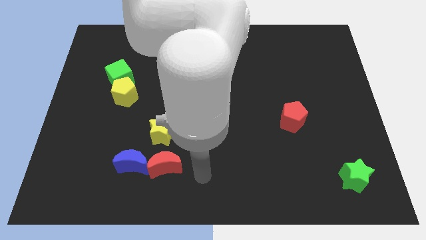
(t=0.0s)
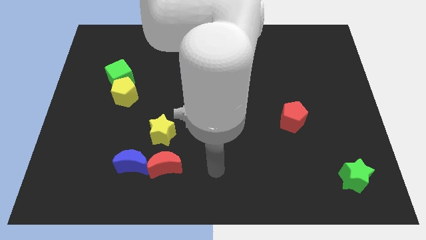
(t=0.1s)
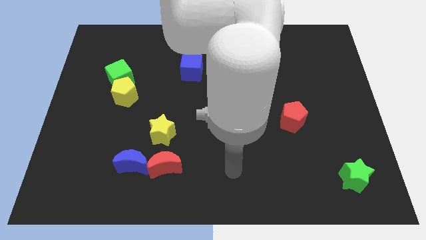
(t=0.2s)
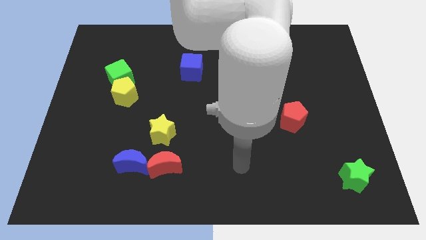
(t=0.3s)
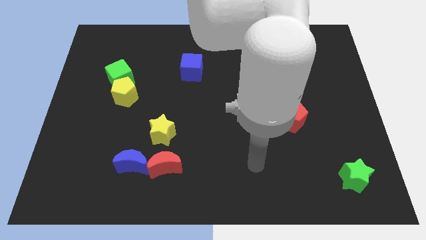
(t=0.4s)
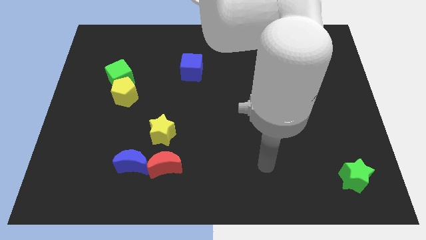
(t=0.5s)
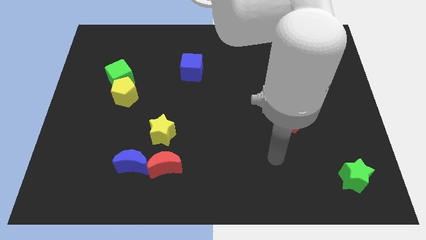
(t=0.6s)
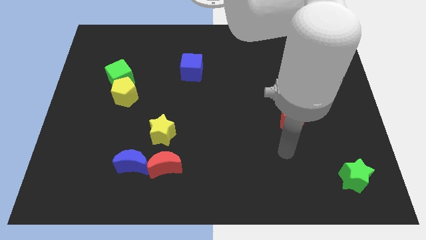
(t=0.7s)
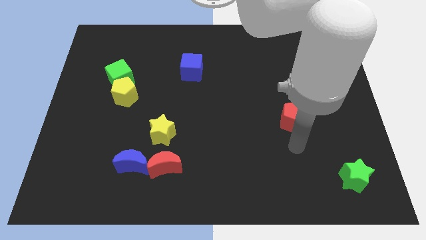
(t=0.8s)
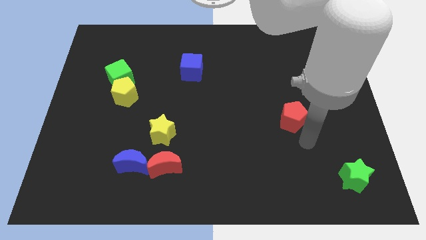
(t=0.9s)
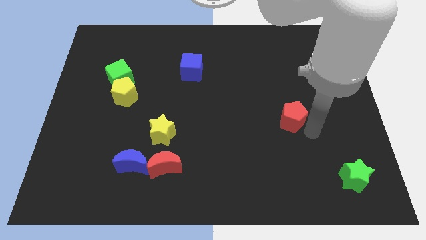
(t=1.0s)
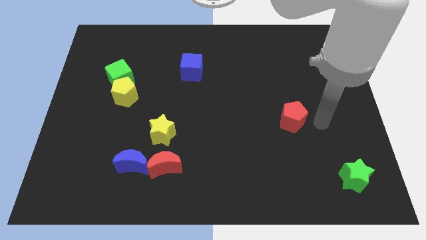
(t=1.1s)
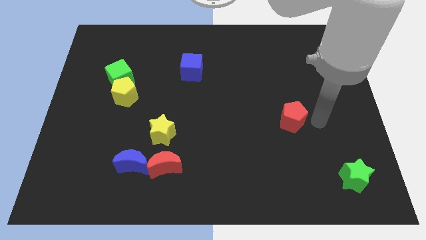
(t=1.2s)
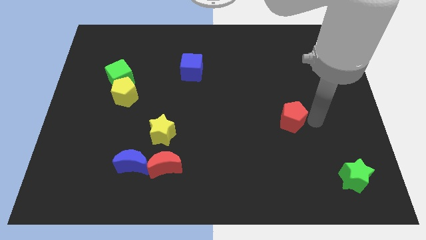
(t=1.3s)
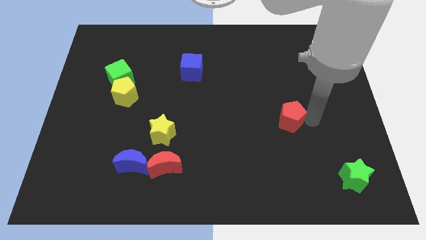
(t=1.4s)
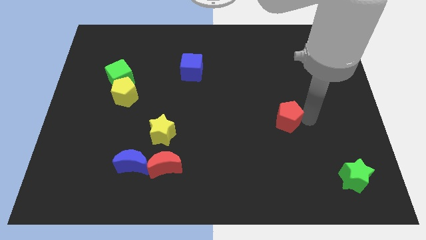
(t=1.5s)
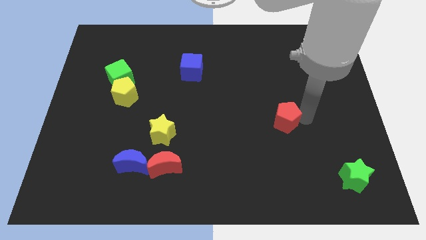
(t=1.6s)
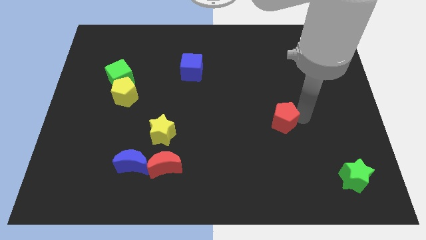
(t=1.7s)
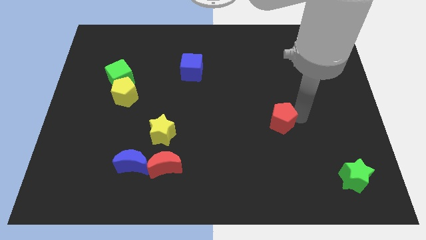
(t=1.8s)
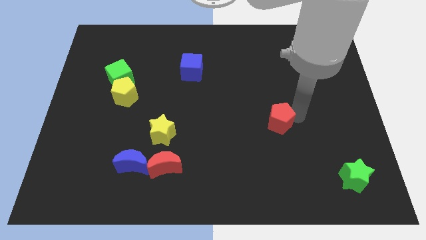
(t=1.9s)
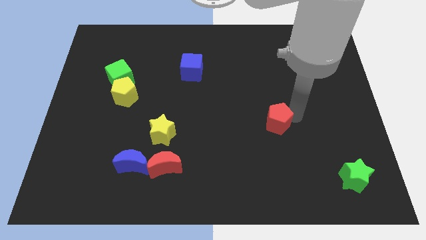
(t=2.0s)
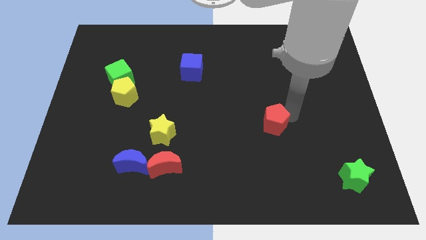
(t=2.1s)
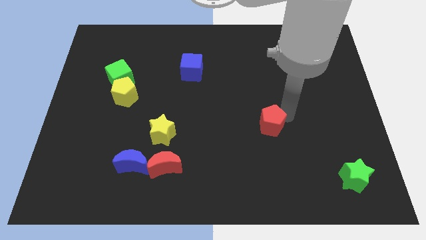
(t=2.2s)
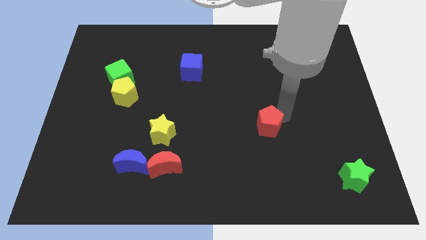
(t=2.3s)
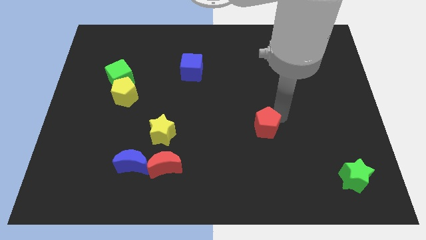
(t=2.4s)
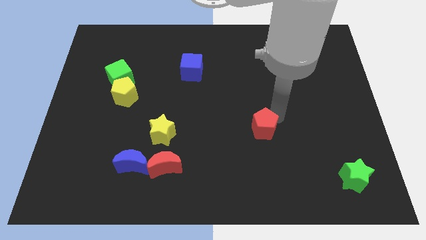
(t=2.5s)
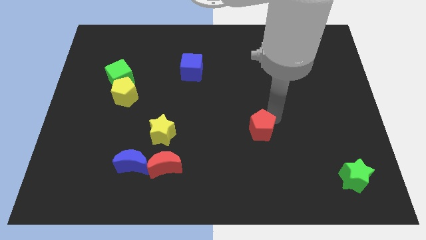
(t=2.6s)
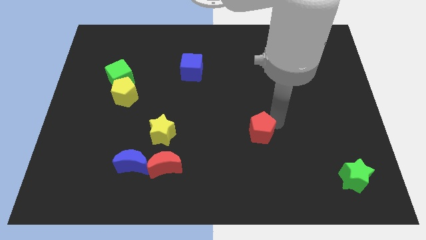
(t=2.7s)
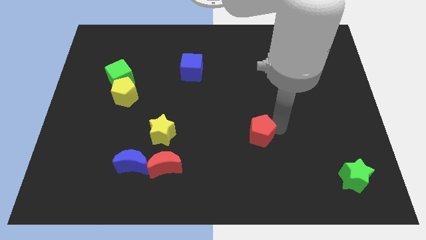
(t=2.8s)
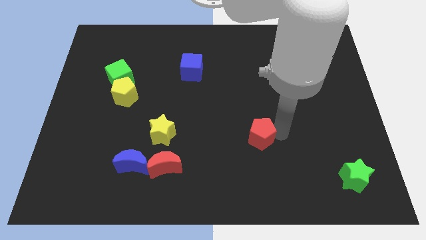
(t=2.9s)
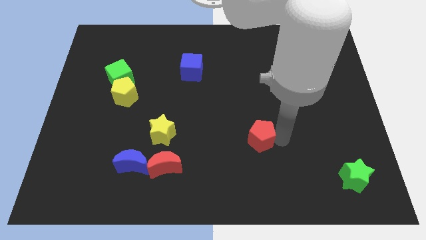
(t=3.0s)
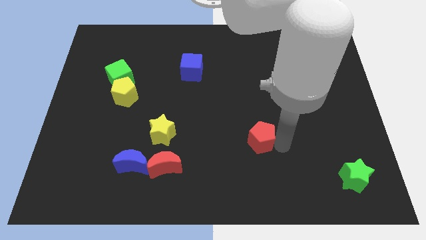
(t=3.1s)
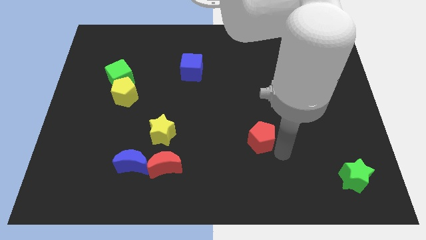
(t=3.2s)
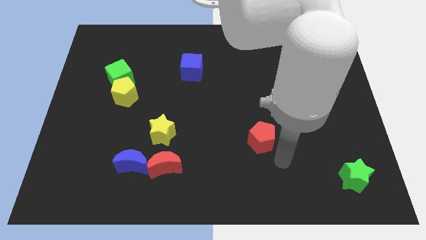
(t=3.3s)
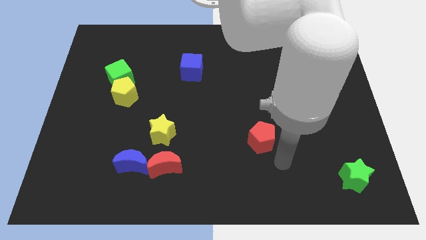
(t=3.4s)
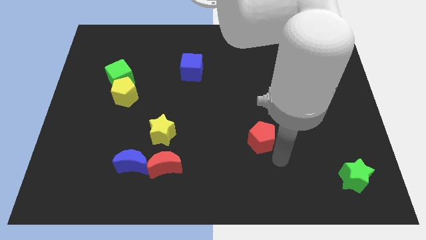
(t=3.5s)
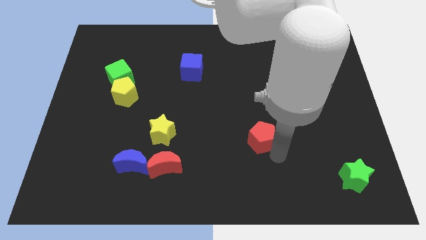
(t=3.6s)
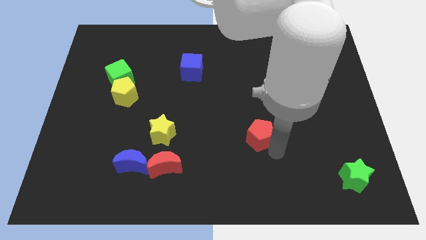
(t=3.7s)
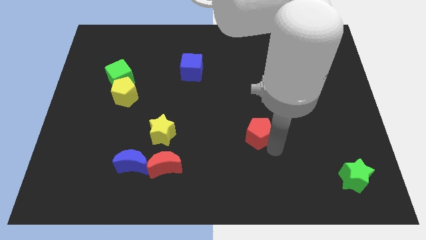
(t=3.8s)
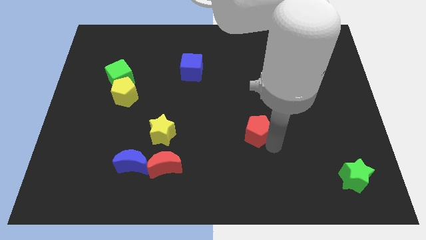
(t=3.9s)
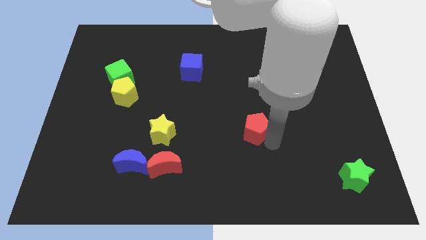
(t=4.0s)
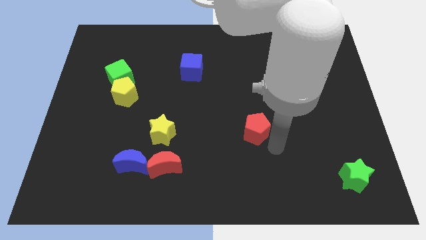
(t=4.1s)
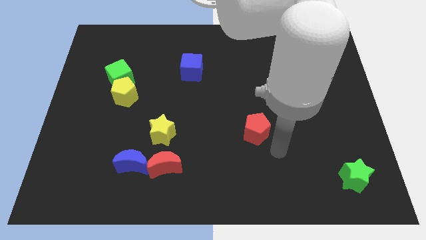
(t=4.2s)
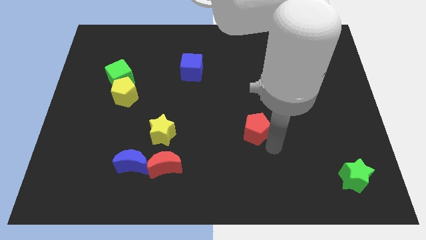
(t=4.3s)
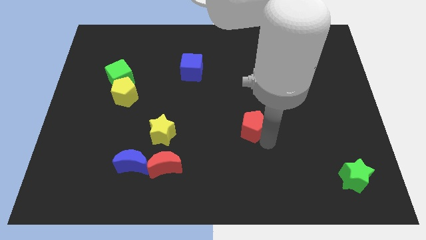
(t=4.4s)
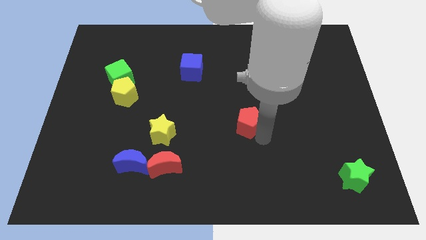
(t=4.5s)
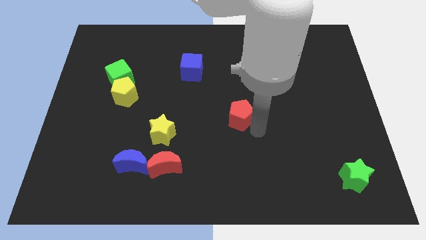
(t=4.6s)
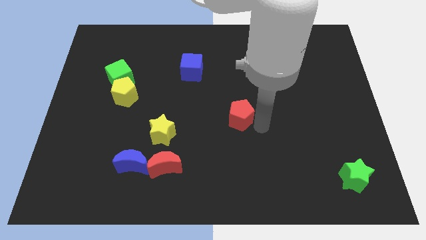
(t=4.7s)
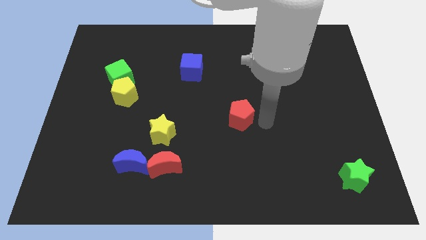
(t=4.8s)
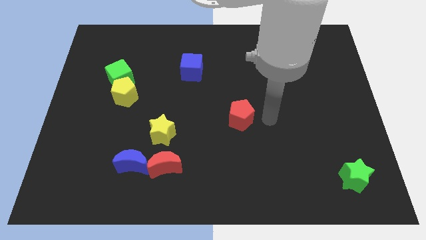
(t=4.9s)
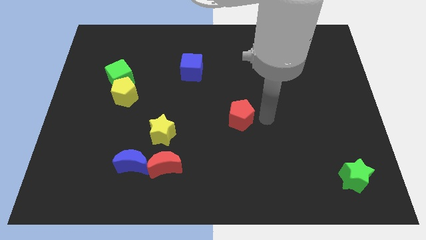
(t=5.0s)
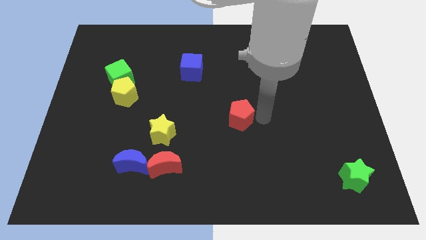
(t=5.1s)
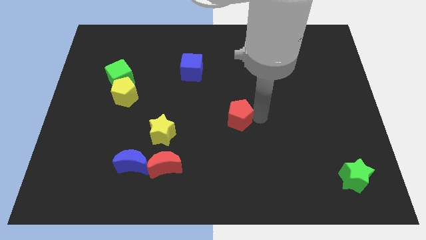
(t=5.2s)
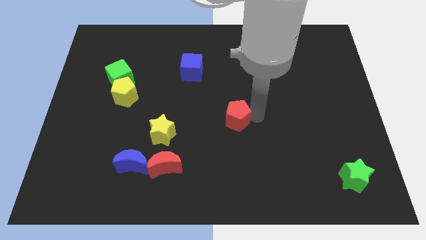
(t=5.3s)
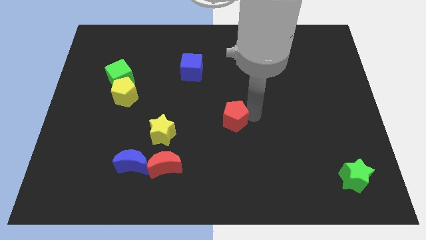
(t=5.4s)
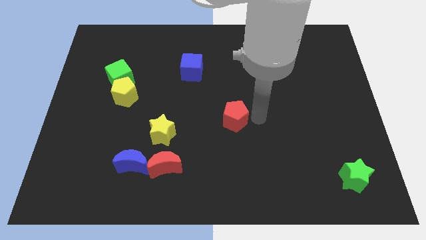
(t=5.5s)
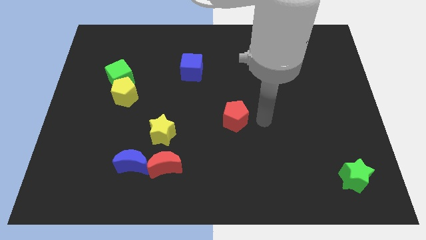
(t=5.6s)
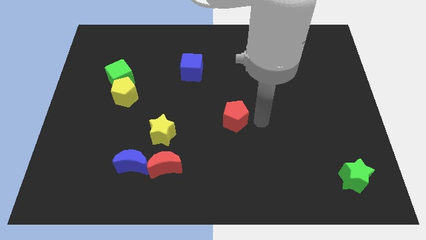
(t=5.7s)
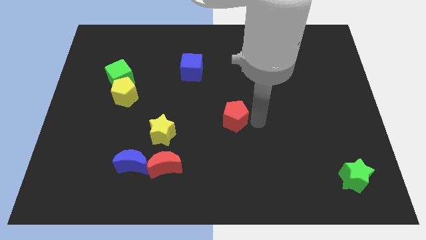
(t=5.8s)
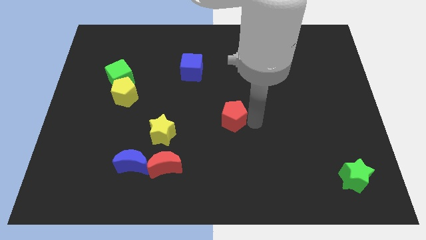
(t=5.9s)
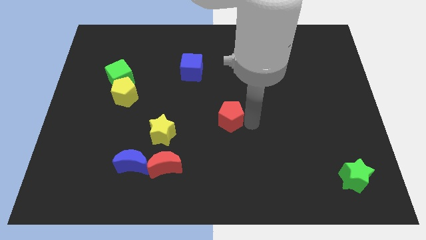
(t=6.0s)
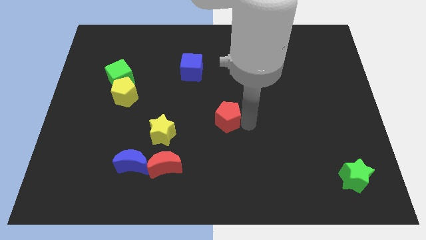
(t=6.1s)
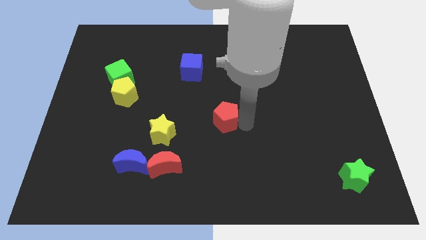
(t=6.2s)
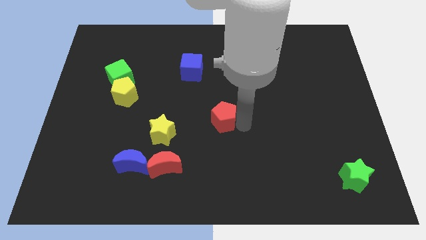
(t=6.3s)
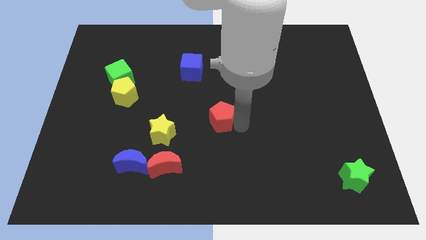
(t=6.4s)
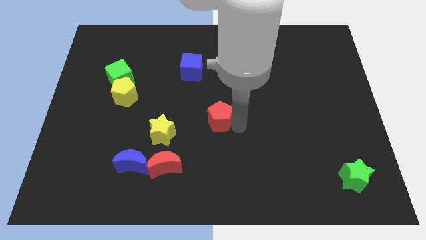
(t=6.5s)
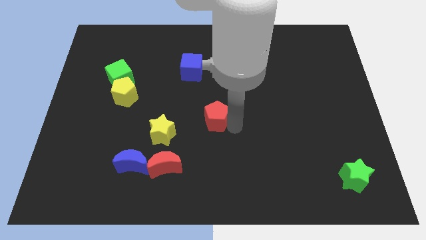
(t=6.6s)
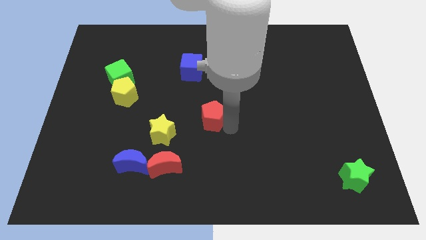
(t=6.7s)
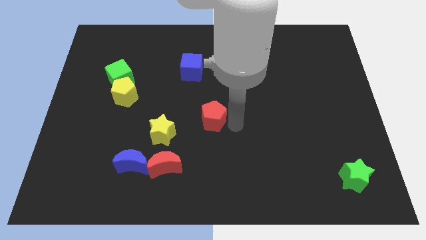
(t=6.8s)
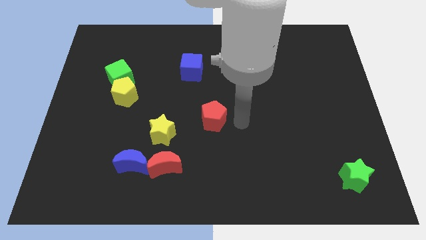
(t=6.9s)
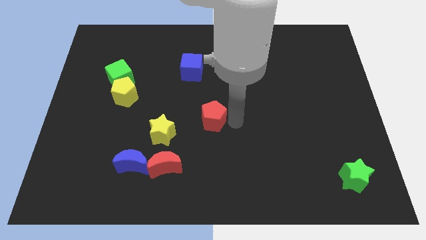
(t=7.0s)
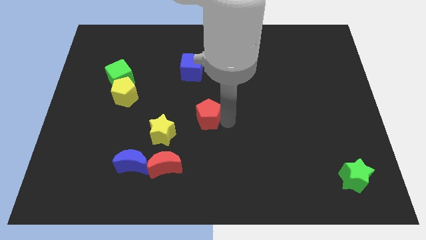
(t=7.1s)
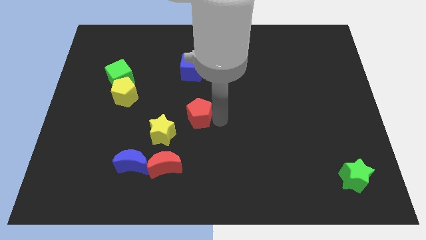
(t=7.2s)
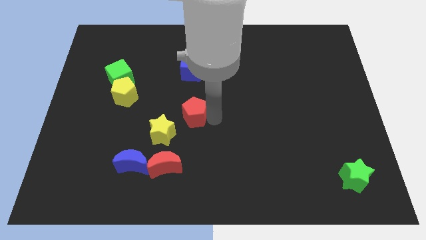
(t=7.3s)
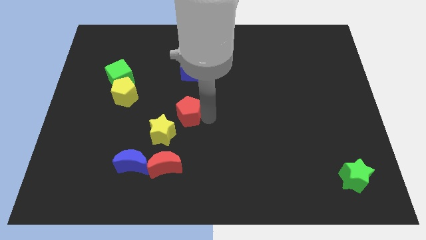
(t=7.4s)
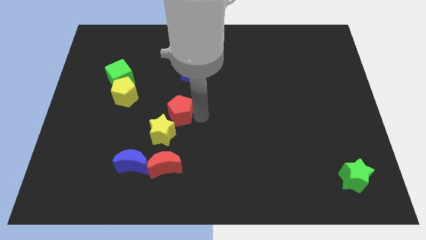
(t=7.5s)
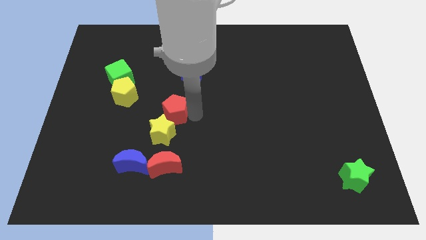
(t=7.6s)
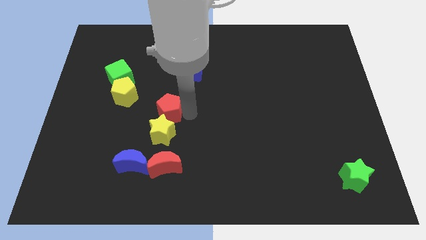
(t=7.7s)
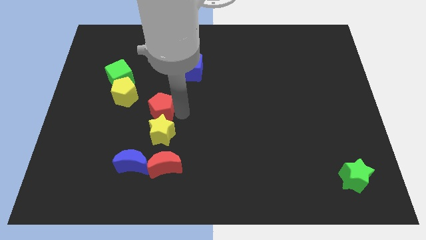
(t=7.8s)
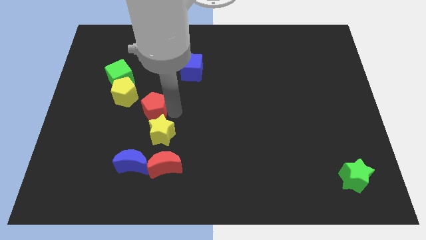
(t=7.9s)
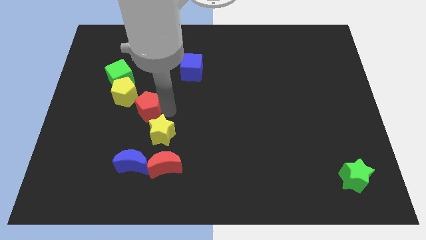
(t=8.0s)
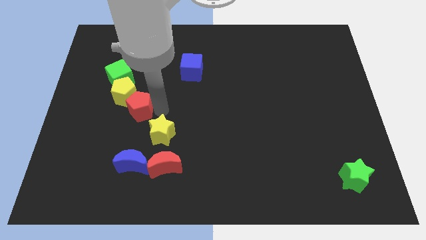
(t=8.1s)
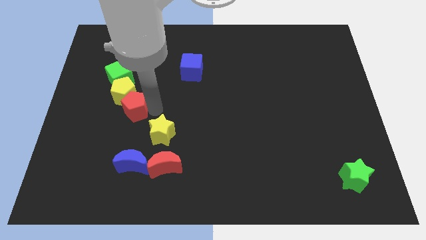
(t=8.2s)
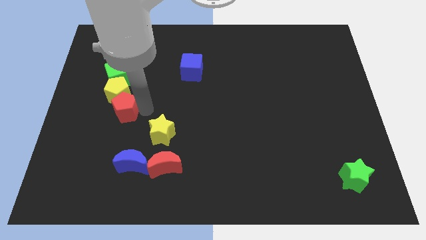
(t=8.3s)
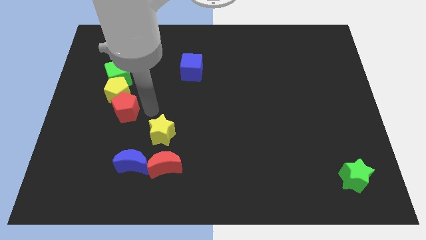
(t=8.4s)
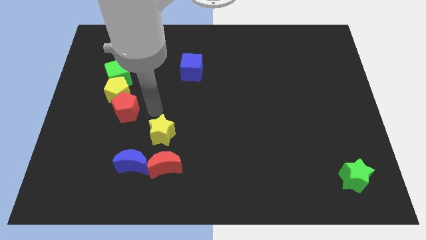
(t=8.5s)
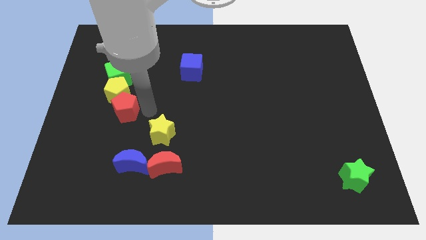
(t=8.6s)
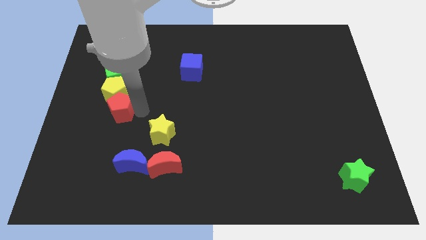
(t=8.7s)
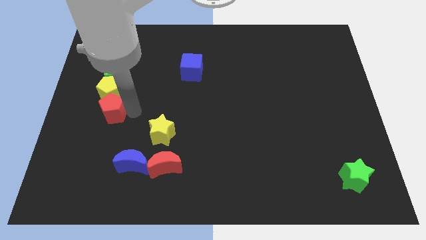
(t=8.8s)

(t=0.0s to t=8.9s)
move the red pentagon diagonally down and to the left of the yellow pentagon
